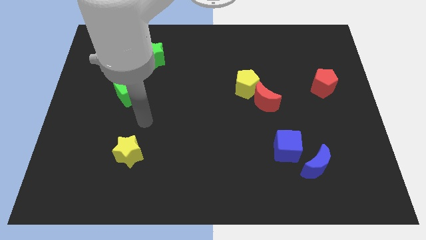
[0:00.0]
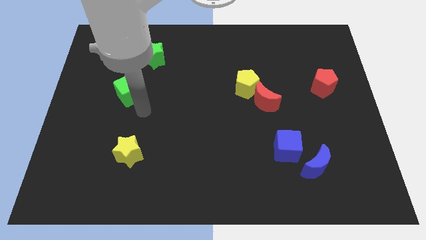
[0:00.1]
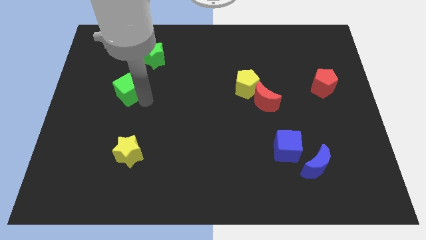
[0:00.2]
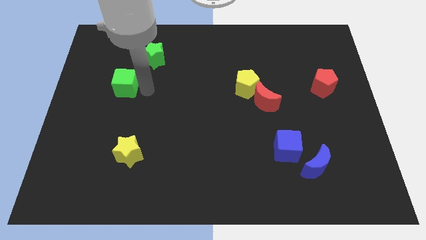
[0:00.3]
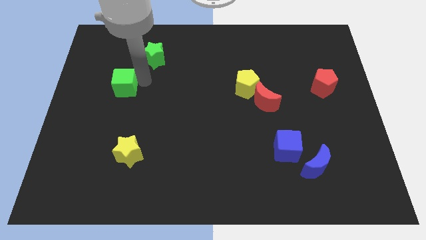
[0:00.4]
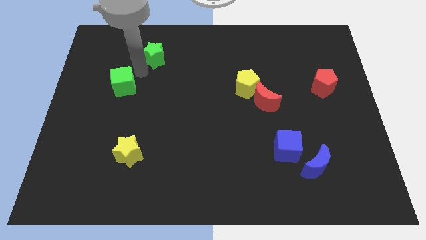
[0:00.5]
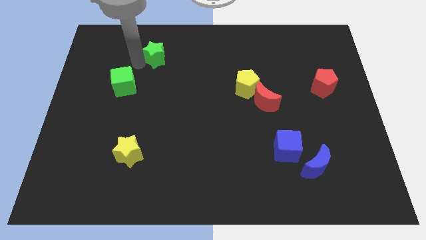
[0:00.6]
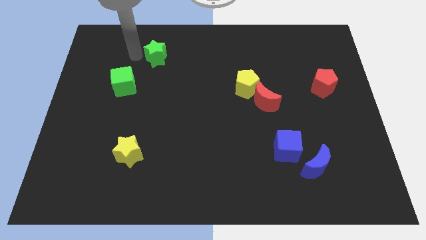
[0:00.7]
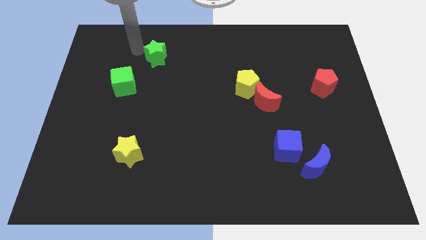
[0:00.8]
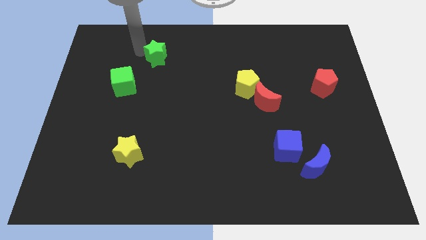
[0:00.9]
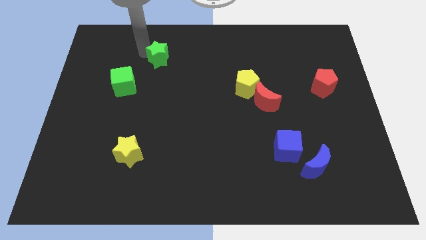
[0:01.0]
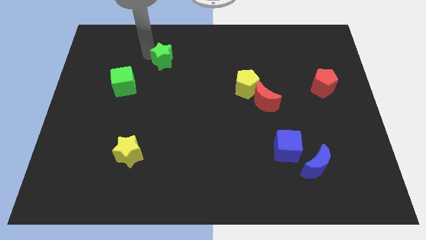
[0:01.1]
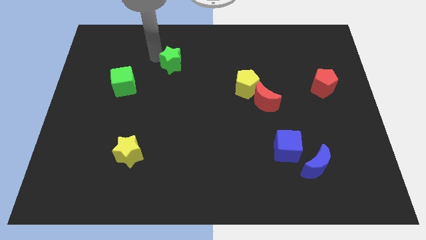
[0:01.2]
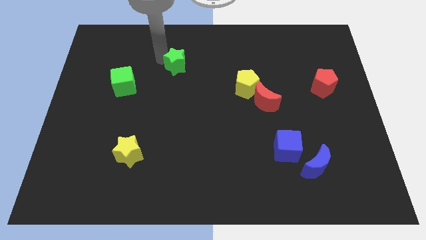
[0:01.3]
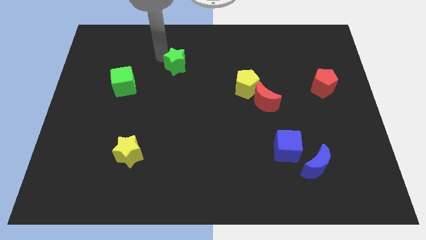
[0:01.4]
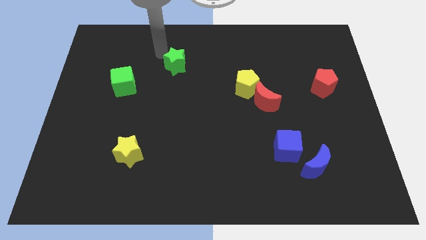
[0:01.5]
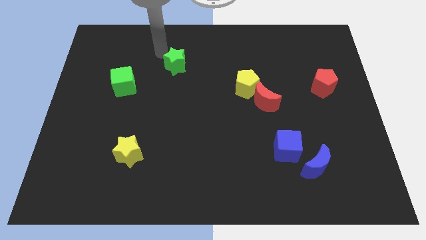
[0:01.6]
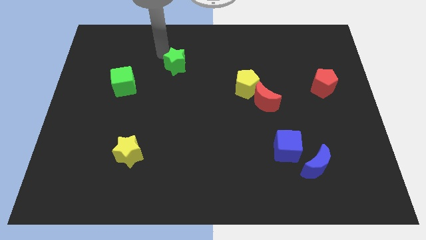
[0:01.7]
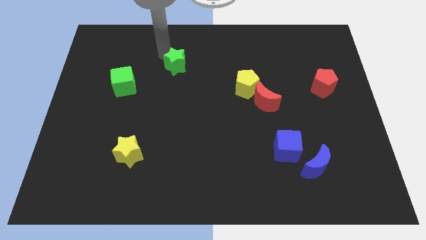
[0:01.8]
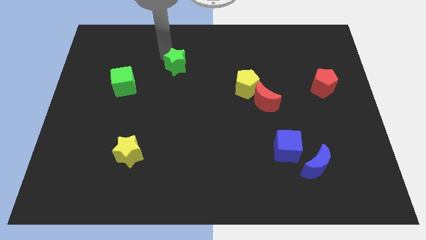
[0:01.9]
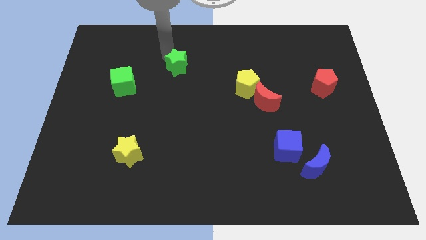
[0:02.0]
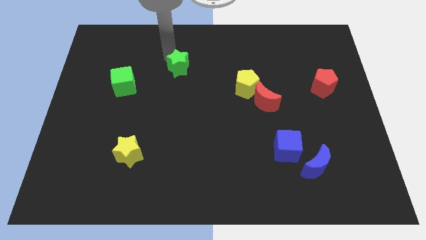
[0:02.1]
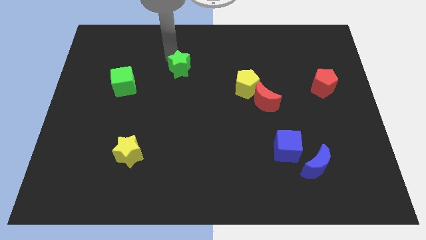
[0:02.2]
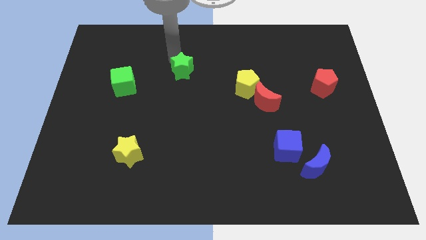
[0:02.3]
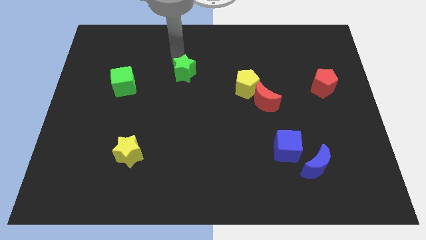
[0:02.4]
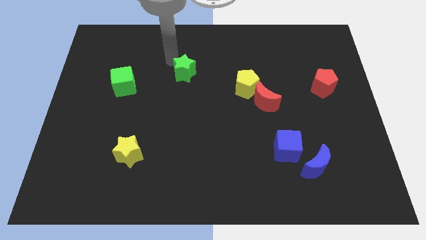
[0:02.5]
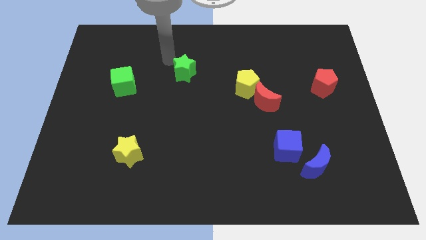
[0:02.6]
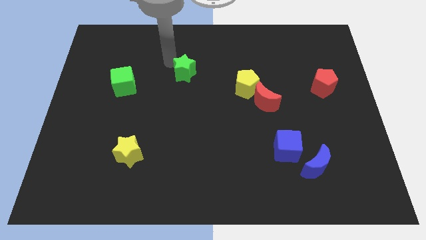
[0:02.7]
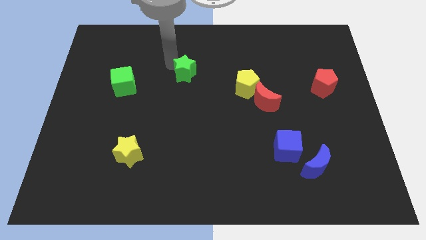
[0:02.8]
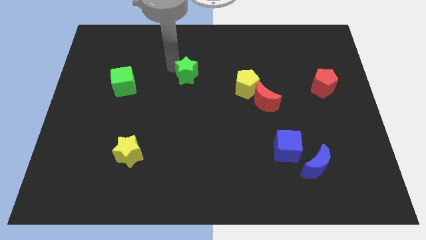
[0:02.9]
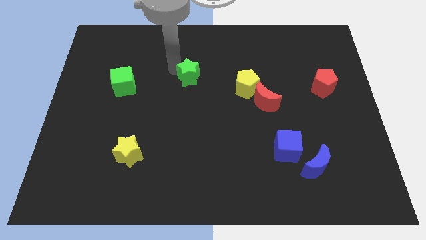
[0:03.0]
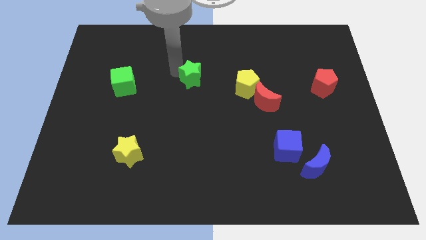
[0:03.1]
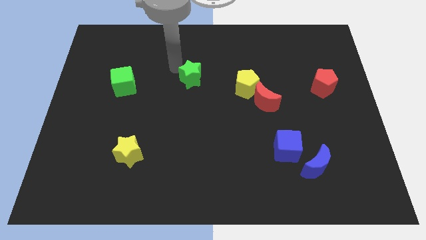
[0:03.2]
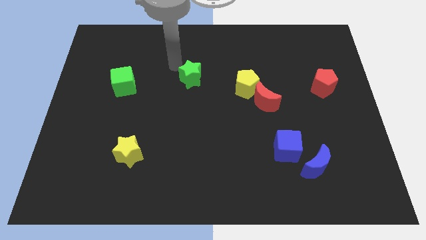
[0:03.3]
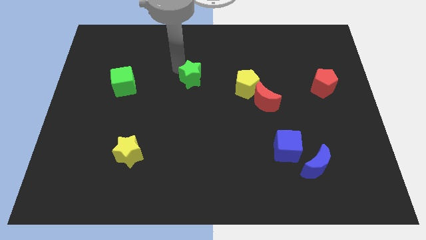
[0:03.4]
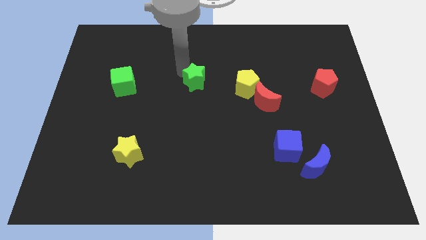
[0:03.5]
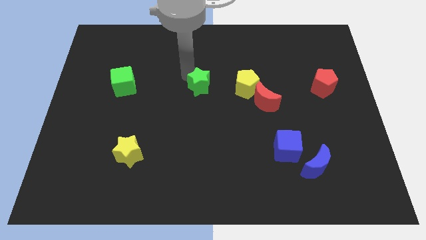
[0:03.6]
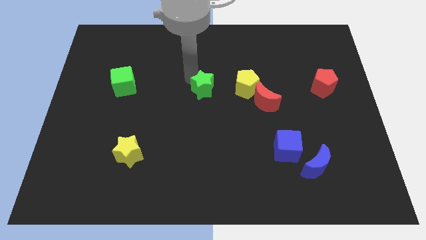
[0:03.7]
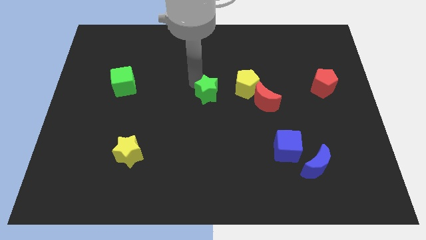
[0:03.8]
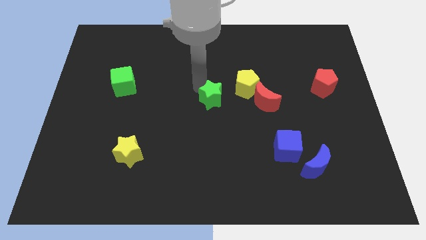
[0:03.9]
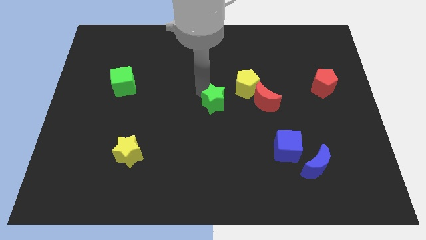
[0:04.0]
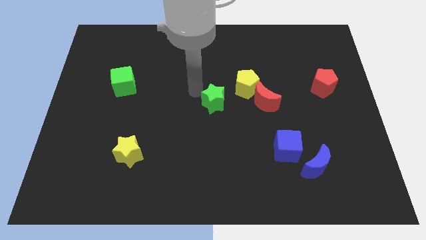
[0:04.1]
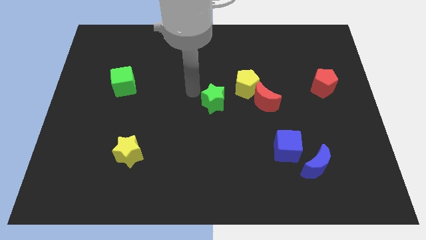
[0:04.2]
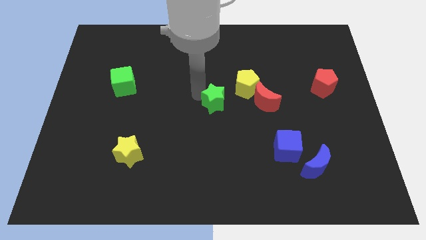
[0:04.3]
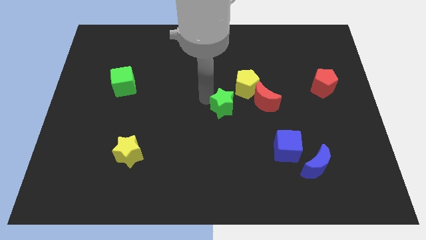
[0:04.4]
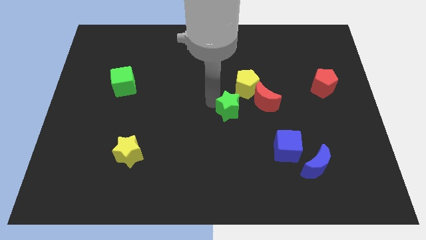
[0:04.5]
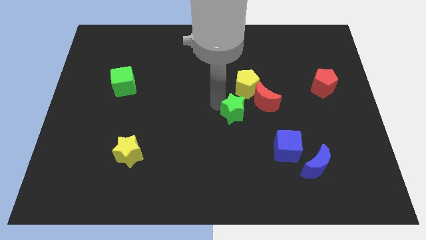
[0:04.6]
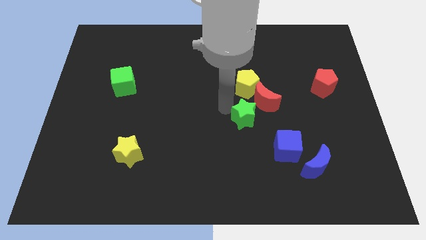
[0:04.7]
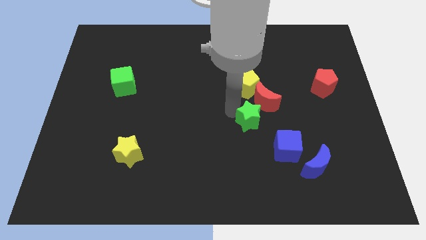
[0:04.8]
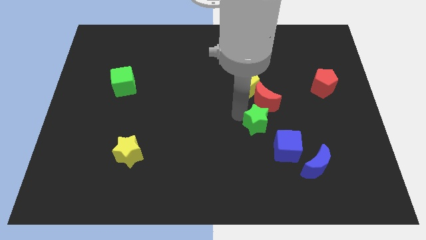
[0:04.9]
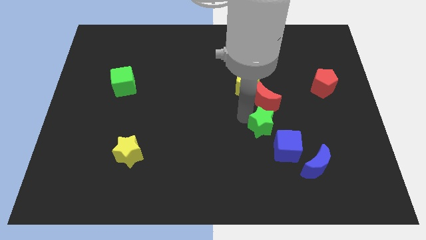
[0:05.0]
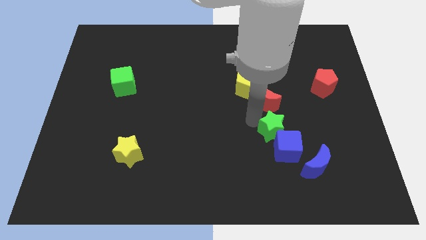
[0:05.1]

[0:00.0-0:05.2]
slide the green star close to the blue cube

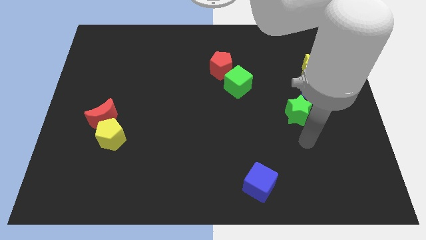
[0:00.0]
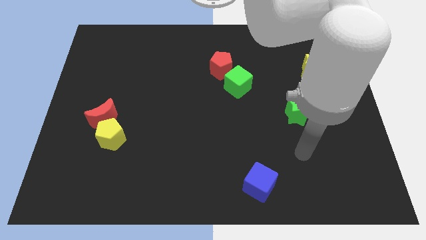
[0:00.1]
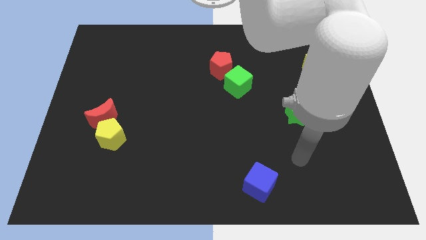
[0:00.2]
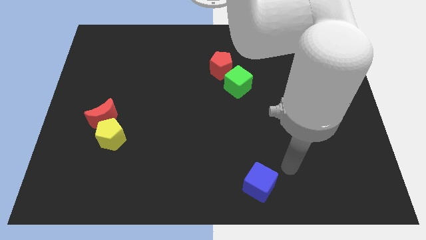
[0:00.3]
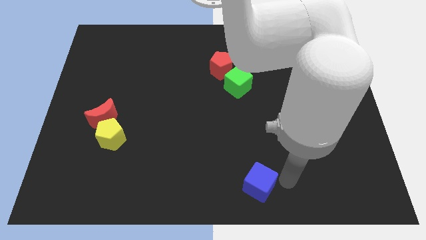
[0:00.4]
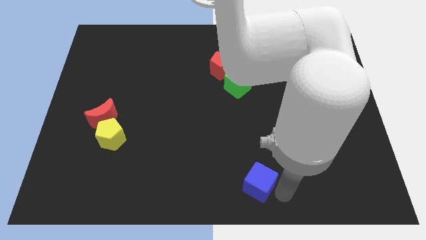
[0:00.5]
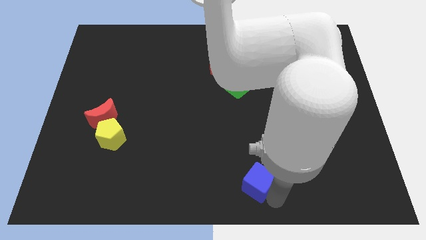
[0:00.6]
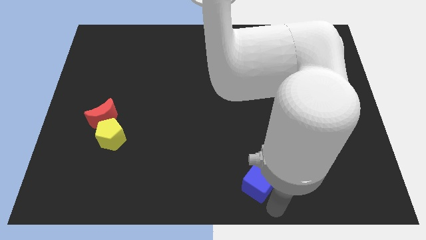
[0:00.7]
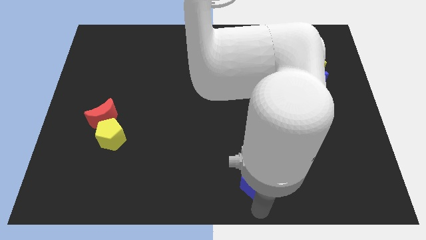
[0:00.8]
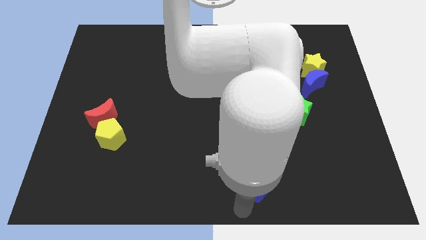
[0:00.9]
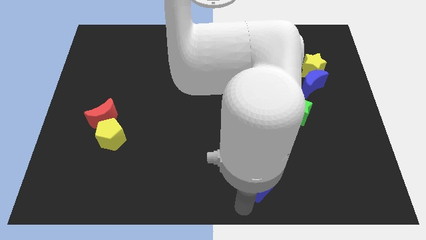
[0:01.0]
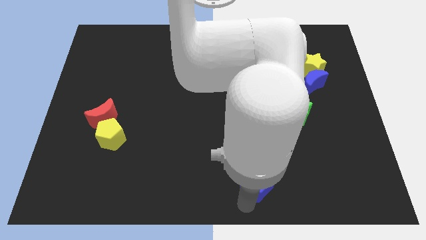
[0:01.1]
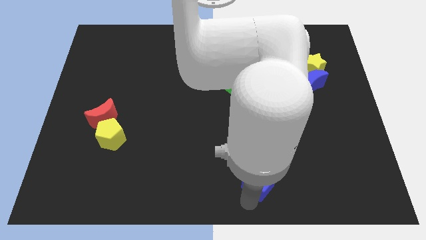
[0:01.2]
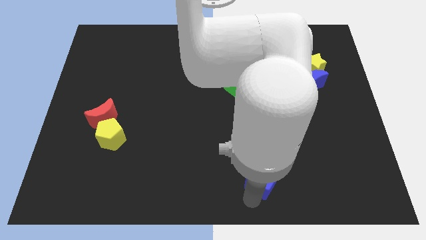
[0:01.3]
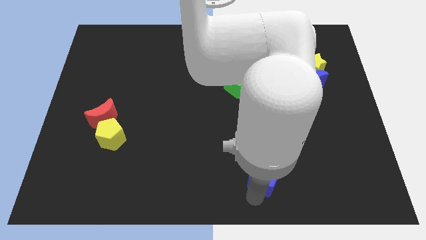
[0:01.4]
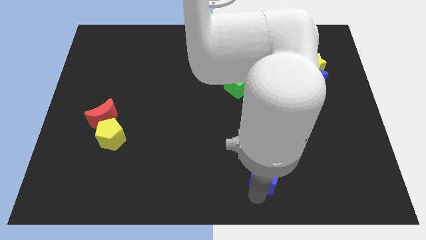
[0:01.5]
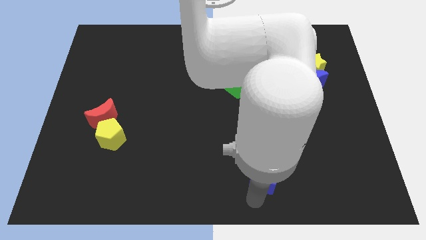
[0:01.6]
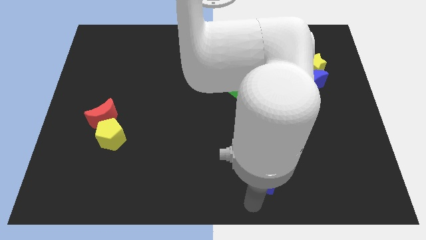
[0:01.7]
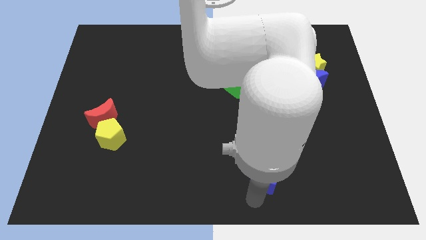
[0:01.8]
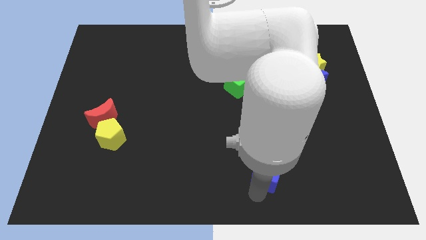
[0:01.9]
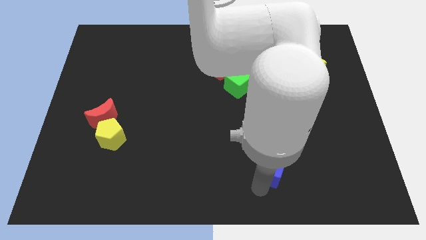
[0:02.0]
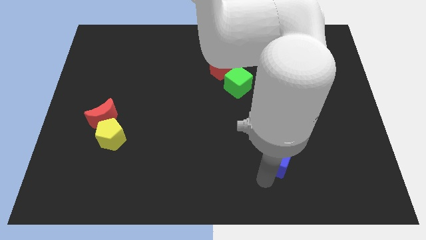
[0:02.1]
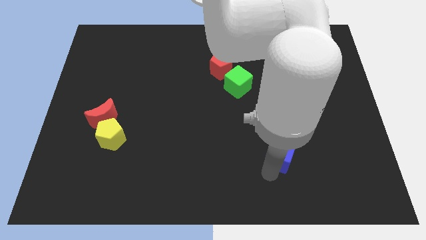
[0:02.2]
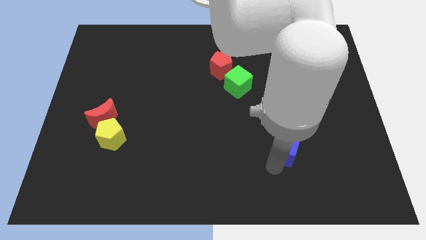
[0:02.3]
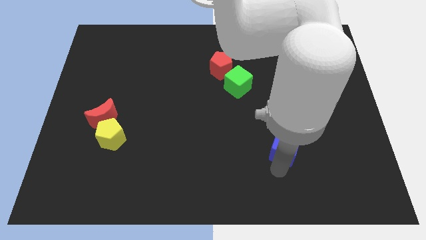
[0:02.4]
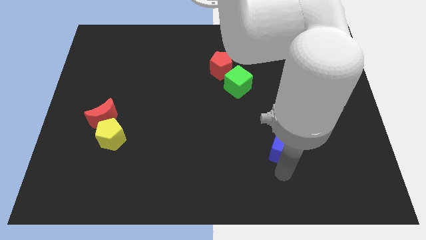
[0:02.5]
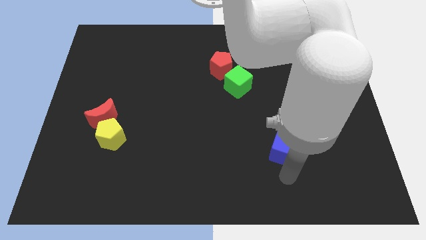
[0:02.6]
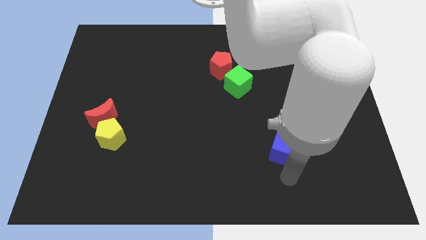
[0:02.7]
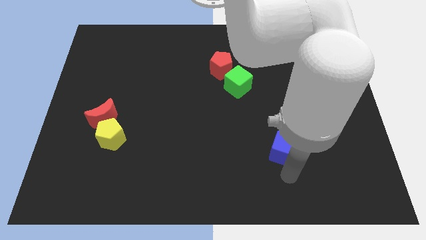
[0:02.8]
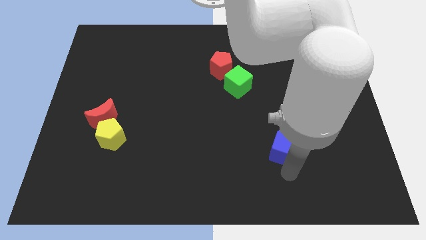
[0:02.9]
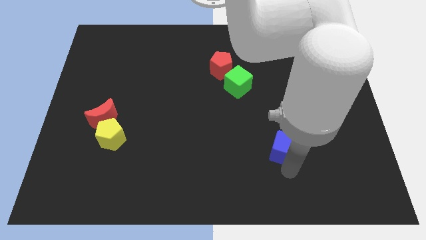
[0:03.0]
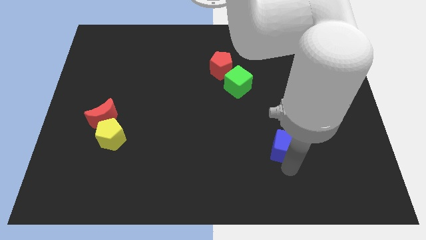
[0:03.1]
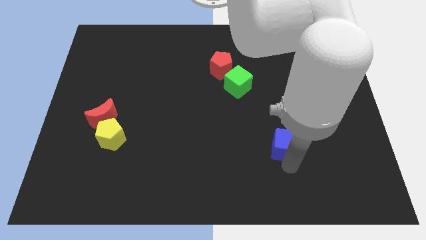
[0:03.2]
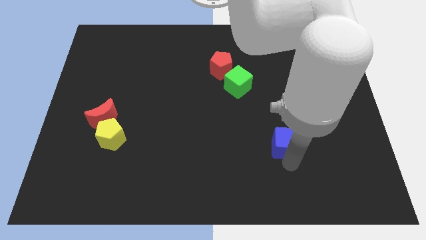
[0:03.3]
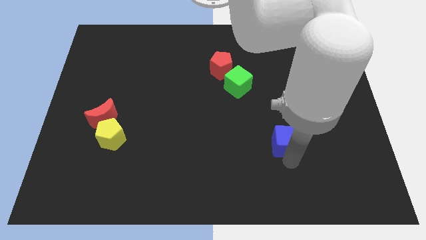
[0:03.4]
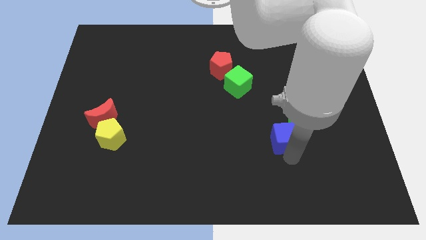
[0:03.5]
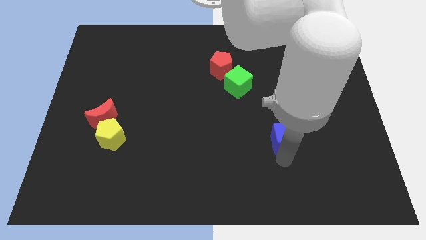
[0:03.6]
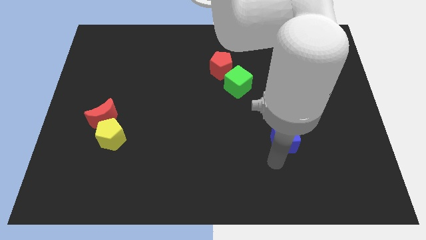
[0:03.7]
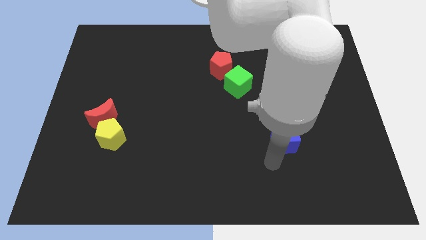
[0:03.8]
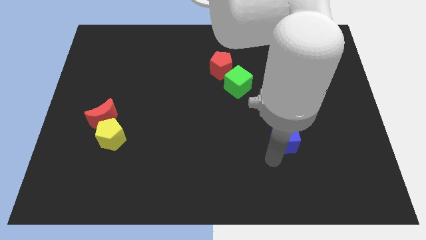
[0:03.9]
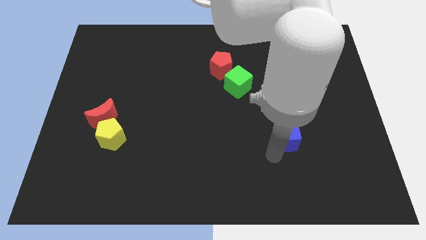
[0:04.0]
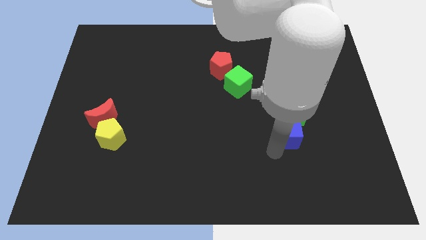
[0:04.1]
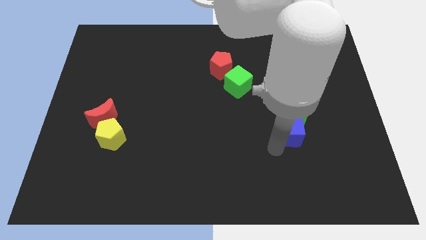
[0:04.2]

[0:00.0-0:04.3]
push the blue cube towards the green star
